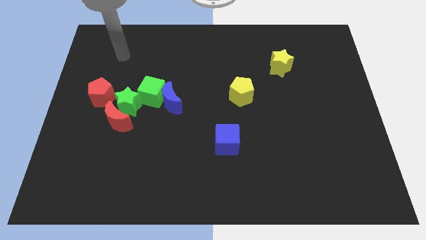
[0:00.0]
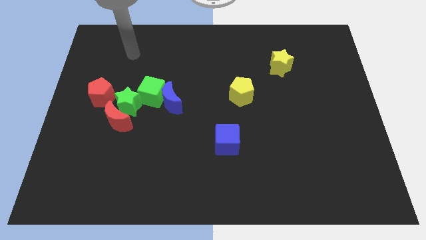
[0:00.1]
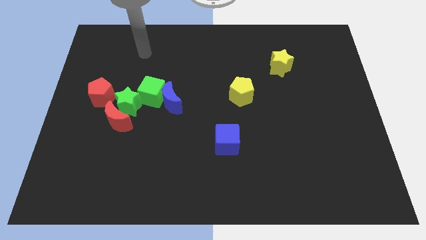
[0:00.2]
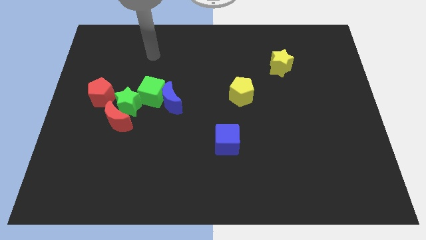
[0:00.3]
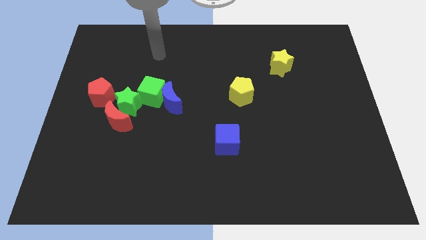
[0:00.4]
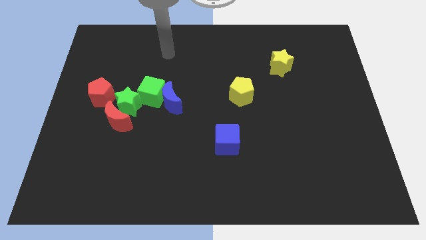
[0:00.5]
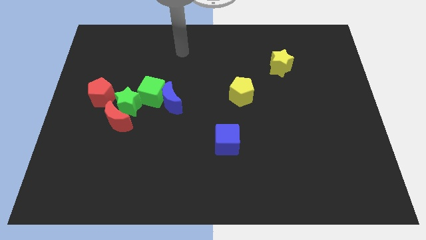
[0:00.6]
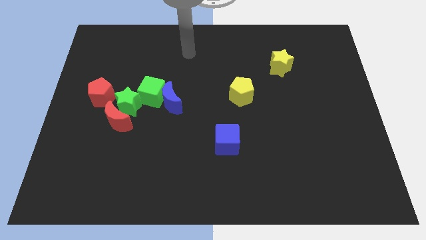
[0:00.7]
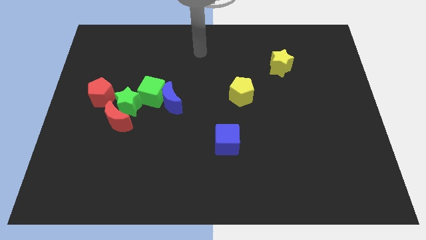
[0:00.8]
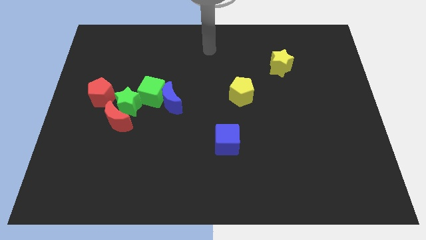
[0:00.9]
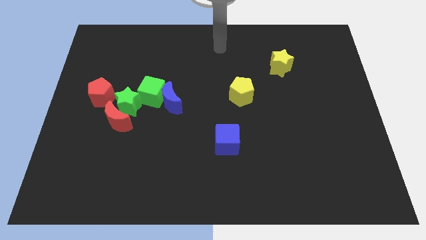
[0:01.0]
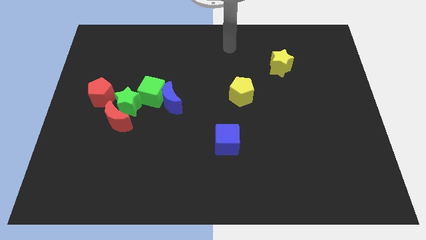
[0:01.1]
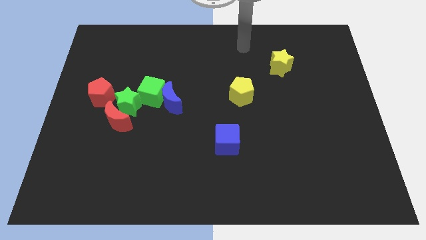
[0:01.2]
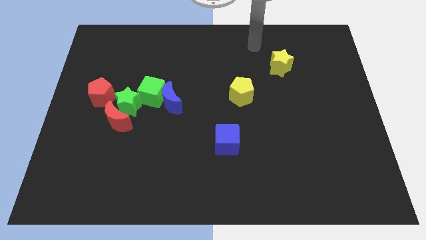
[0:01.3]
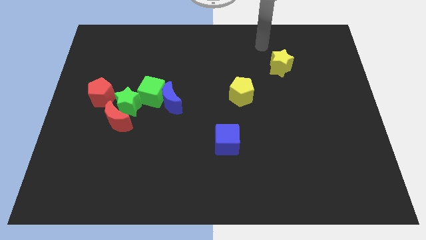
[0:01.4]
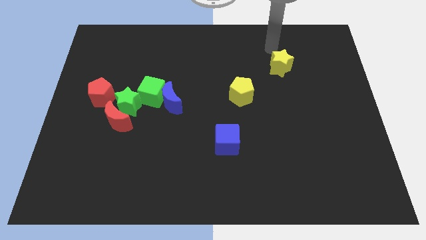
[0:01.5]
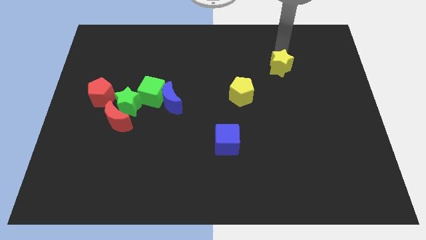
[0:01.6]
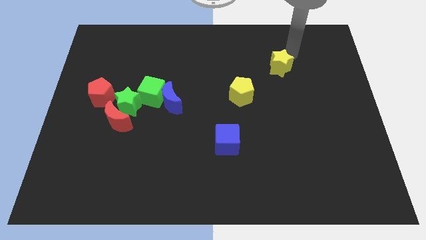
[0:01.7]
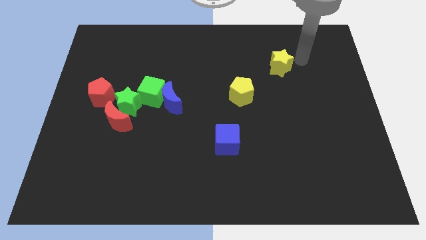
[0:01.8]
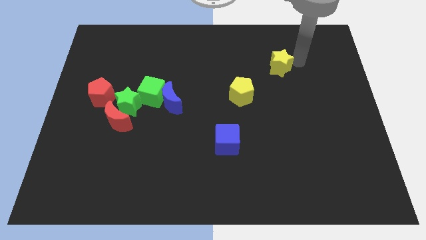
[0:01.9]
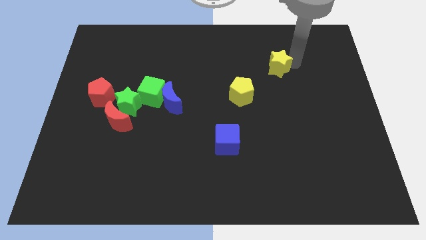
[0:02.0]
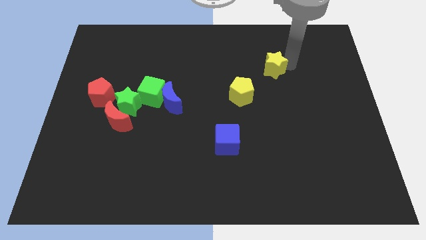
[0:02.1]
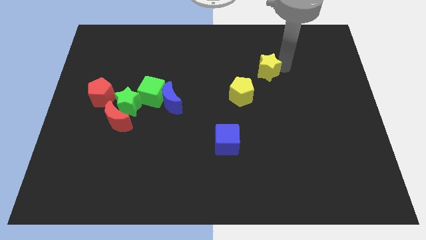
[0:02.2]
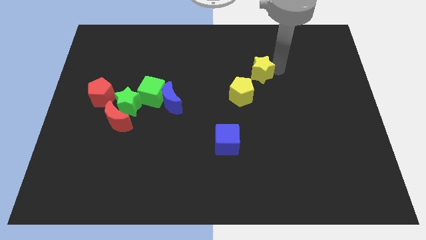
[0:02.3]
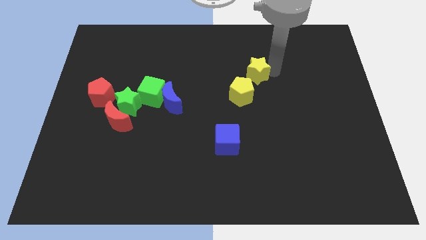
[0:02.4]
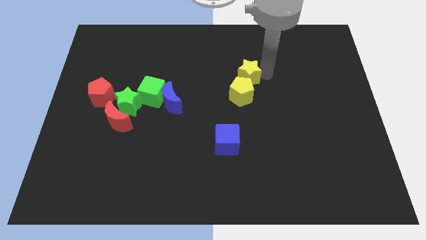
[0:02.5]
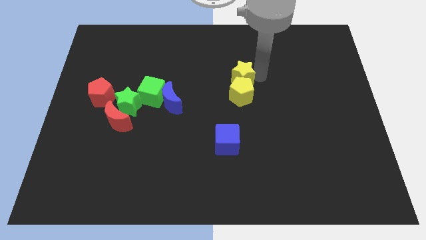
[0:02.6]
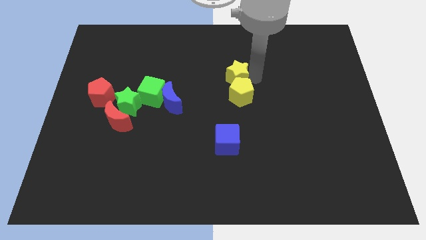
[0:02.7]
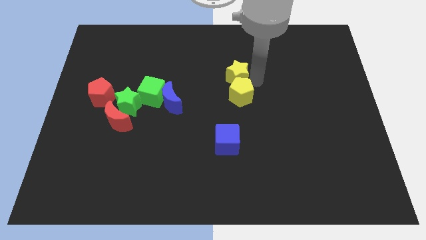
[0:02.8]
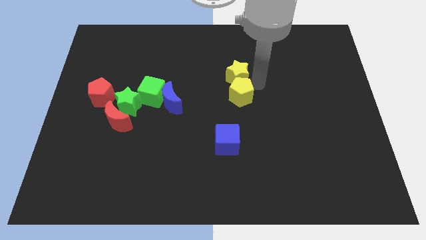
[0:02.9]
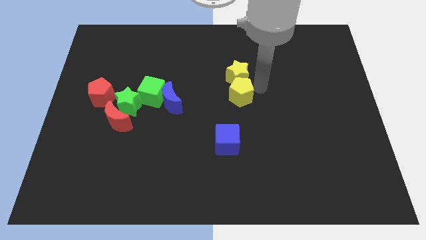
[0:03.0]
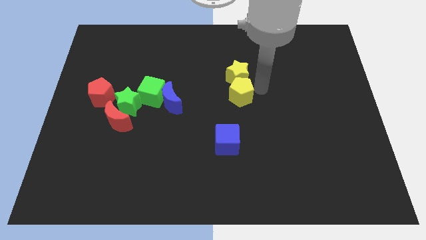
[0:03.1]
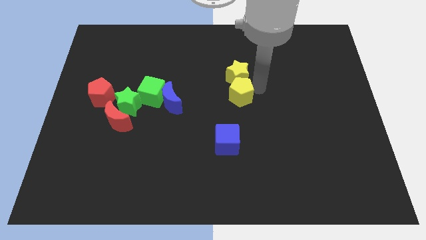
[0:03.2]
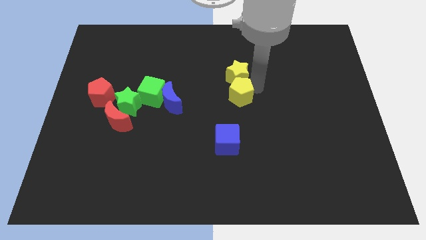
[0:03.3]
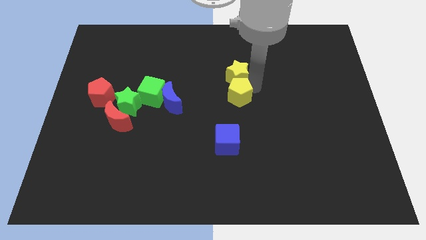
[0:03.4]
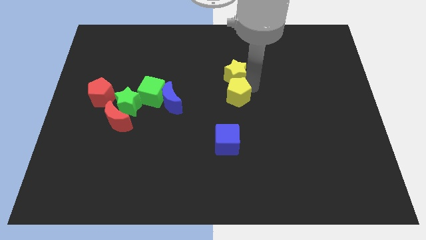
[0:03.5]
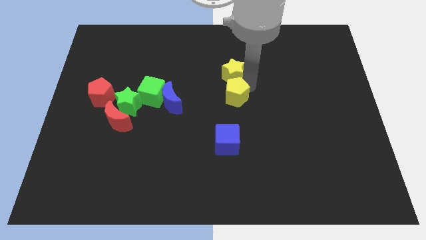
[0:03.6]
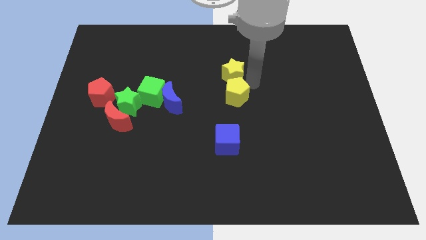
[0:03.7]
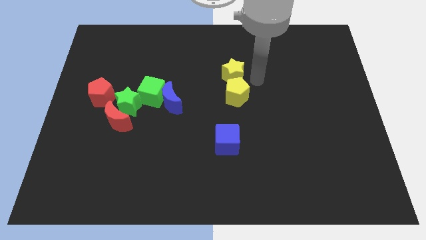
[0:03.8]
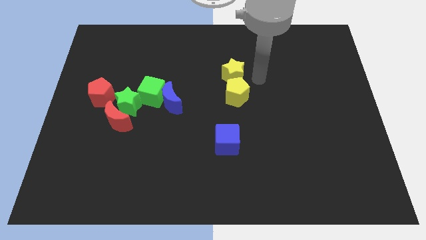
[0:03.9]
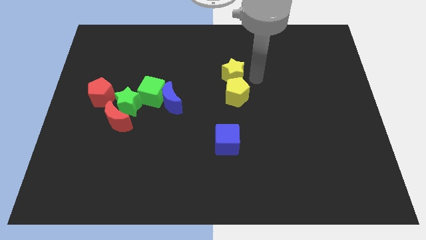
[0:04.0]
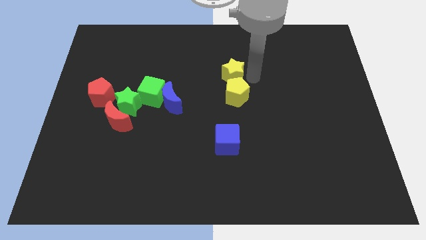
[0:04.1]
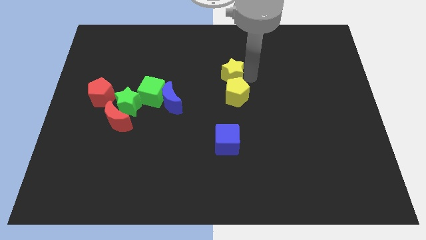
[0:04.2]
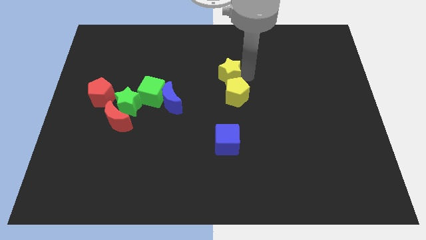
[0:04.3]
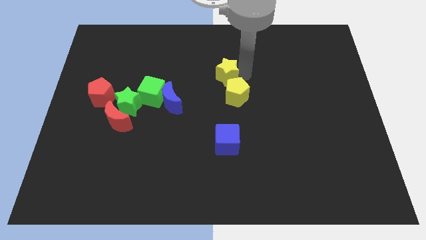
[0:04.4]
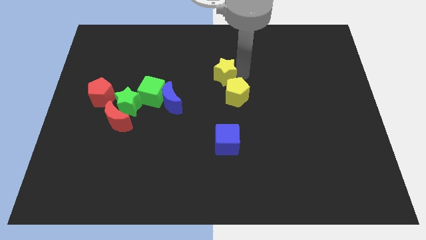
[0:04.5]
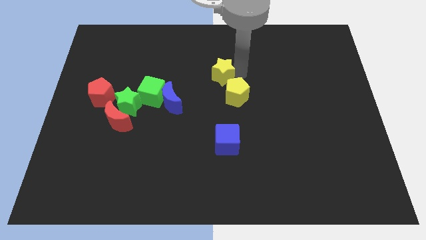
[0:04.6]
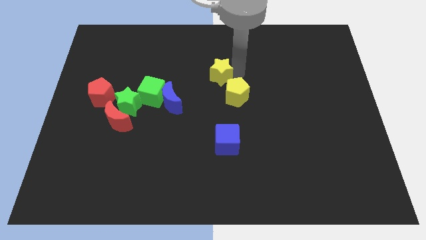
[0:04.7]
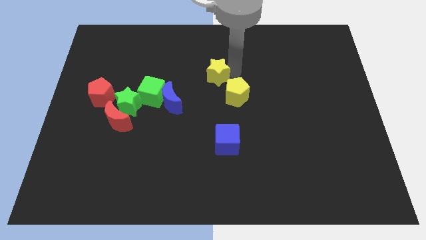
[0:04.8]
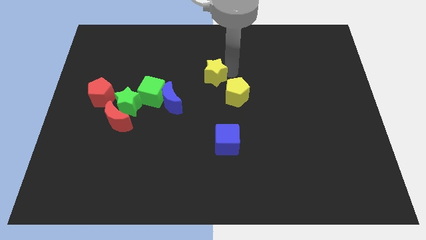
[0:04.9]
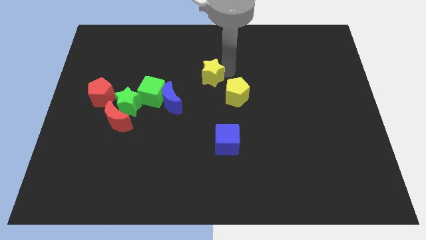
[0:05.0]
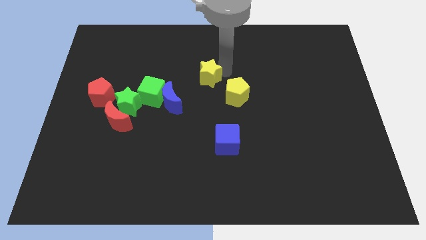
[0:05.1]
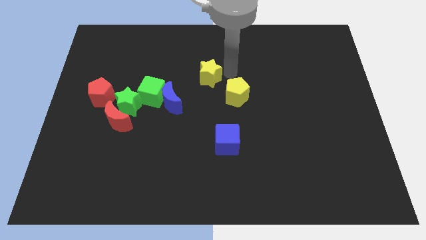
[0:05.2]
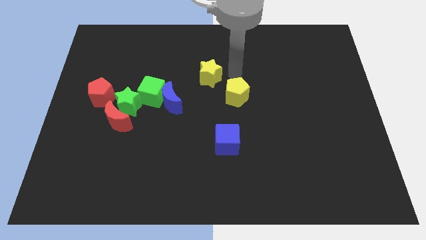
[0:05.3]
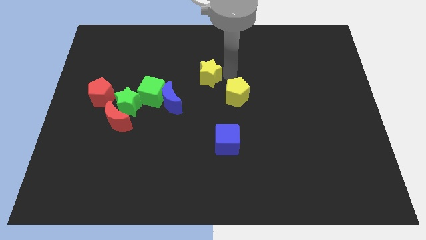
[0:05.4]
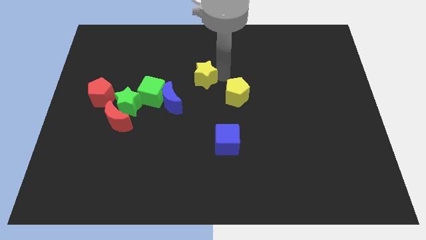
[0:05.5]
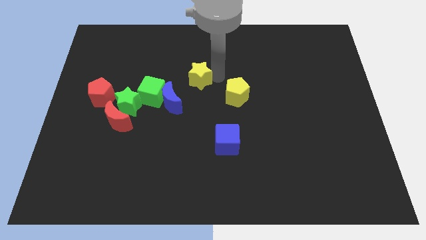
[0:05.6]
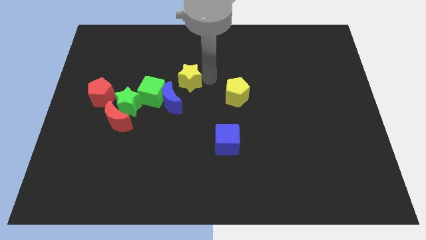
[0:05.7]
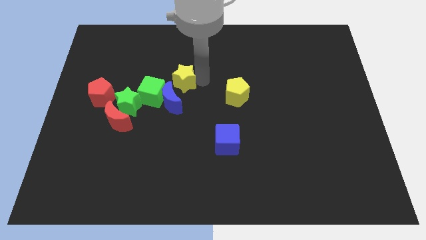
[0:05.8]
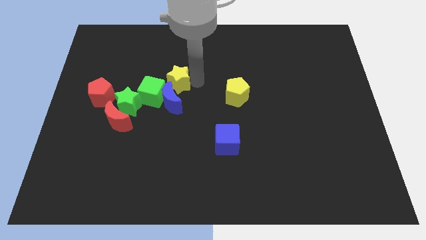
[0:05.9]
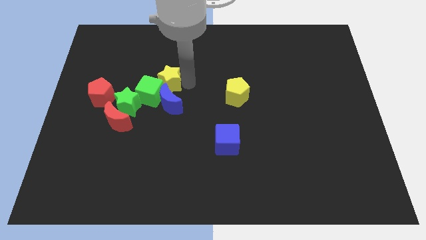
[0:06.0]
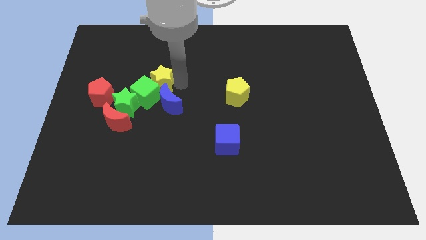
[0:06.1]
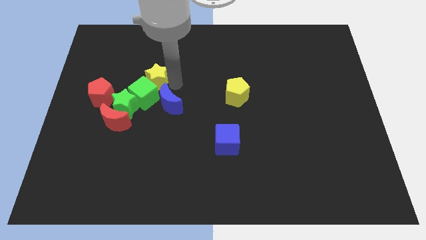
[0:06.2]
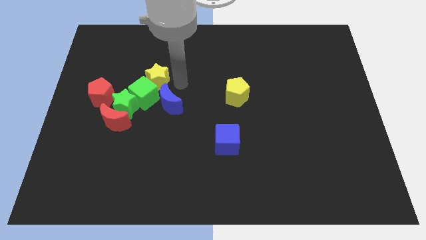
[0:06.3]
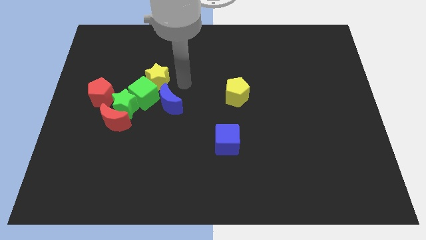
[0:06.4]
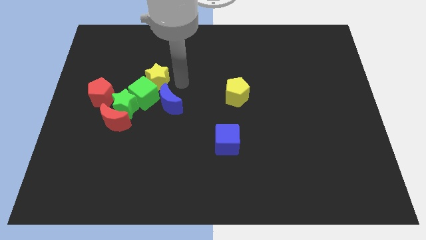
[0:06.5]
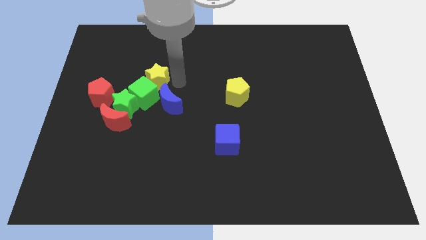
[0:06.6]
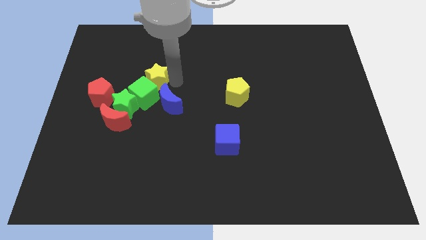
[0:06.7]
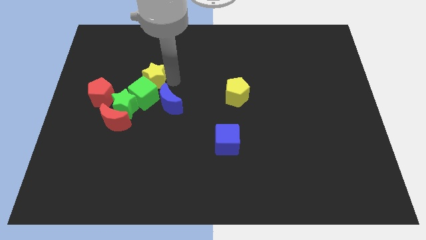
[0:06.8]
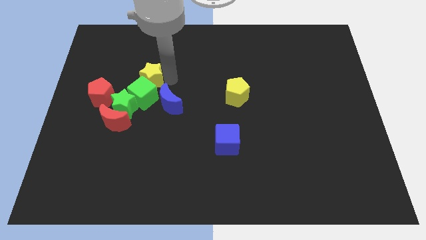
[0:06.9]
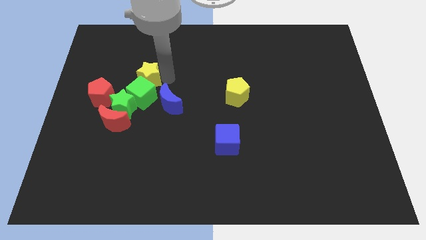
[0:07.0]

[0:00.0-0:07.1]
push the yellow star to the top right of the red pentagon
